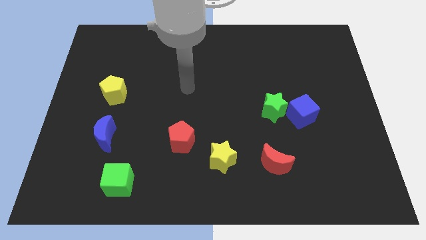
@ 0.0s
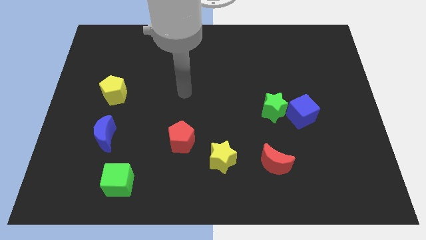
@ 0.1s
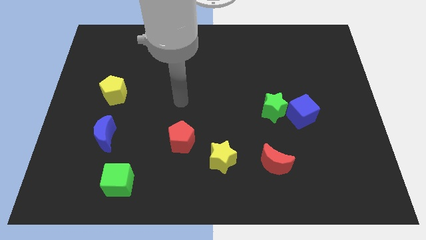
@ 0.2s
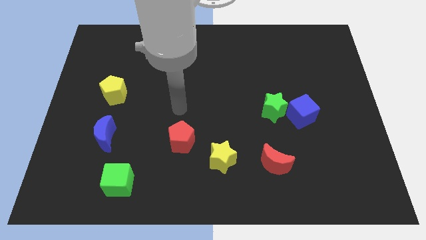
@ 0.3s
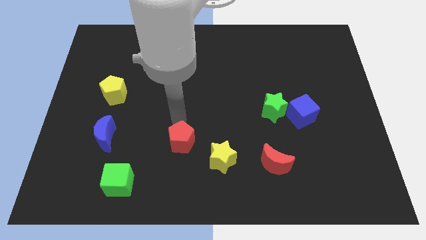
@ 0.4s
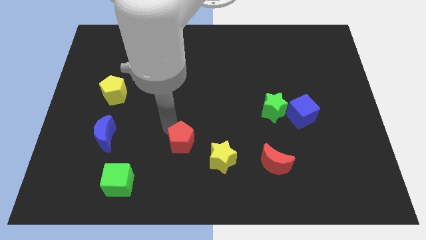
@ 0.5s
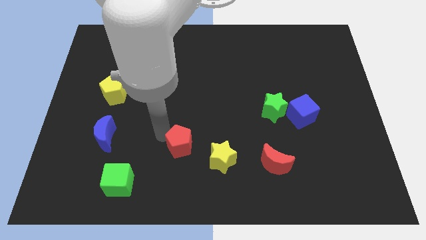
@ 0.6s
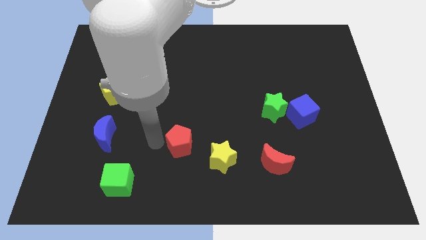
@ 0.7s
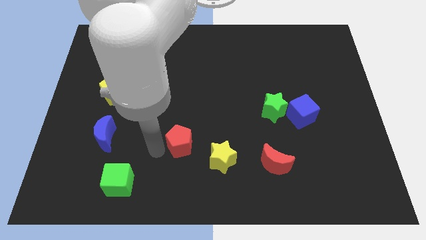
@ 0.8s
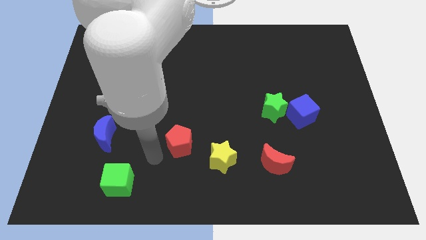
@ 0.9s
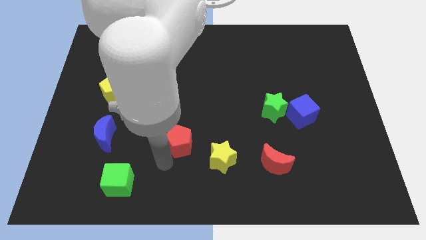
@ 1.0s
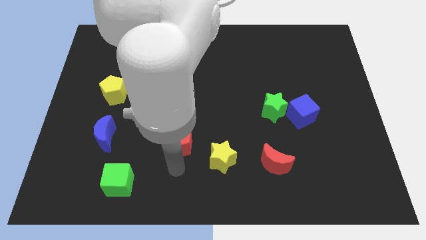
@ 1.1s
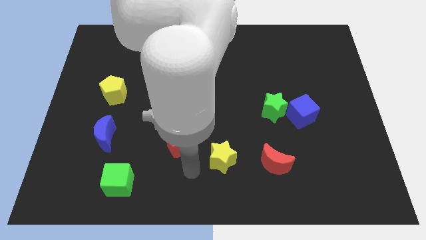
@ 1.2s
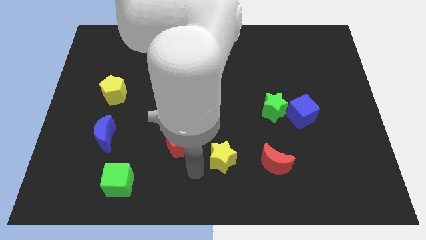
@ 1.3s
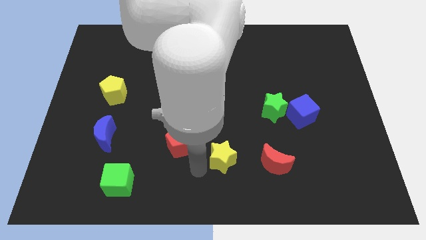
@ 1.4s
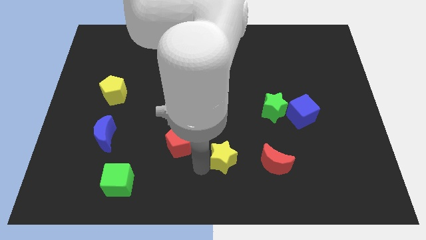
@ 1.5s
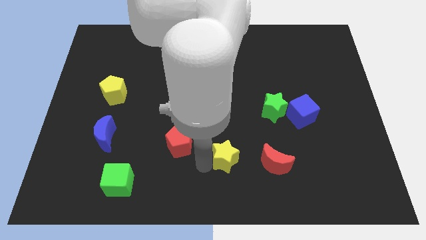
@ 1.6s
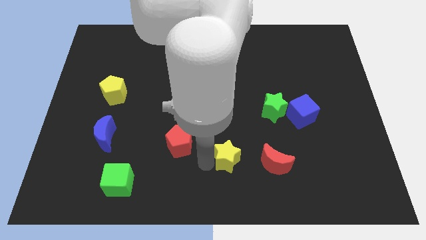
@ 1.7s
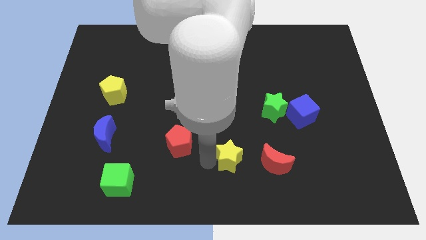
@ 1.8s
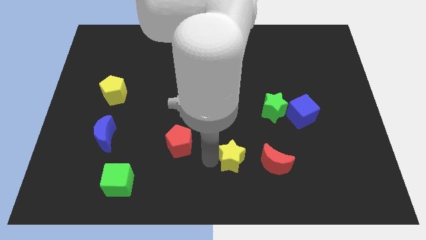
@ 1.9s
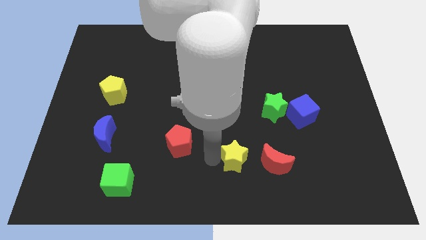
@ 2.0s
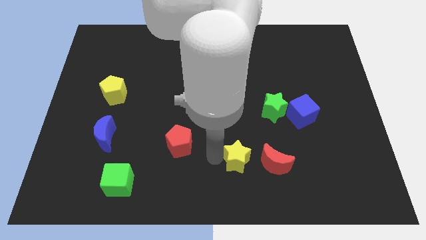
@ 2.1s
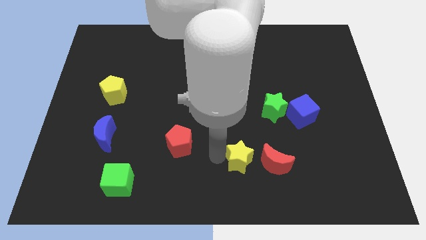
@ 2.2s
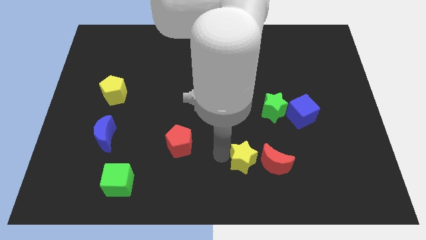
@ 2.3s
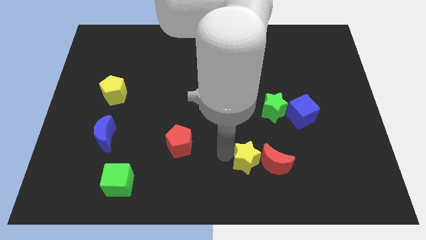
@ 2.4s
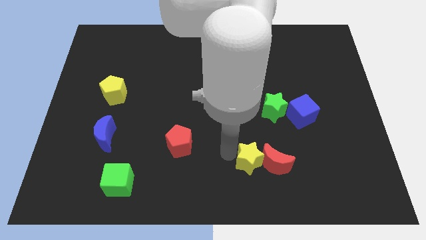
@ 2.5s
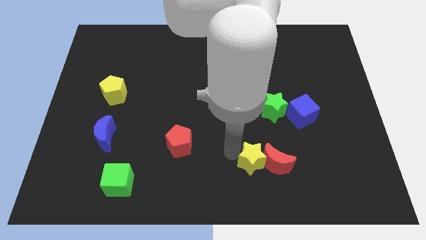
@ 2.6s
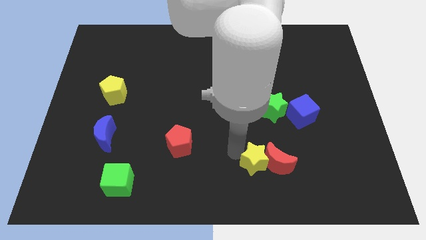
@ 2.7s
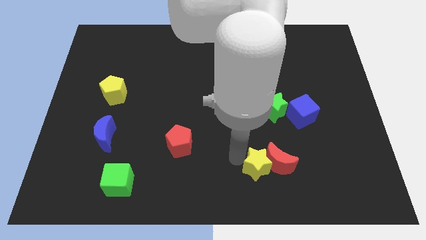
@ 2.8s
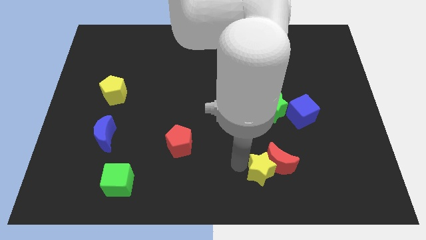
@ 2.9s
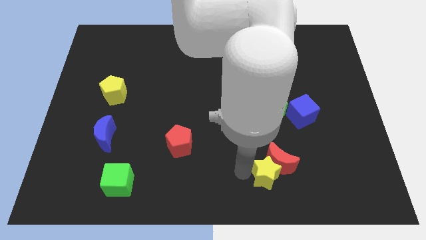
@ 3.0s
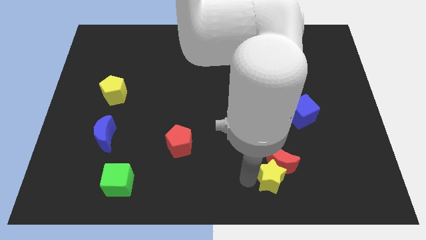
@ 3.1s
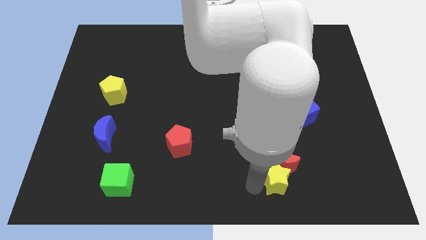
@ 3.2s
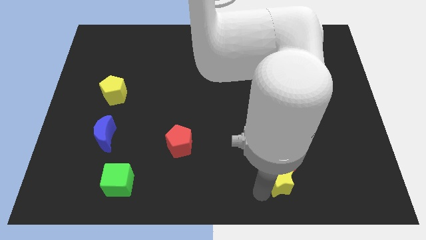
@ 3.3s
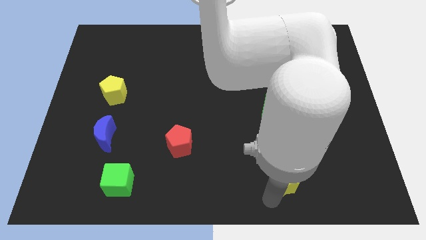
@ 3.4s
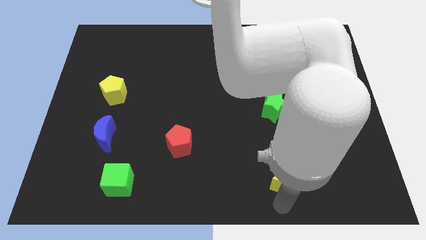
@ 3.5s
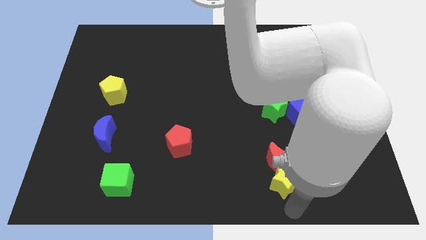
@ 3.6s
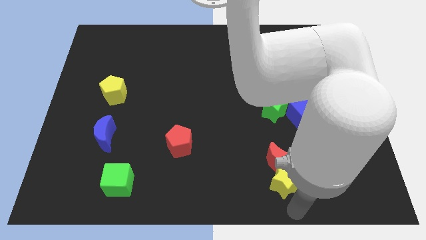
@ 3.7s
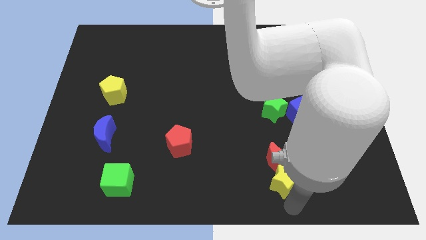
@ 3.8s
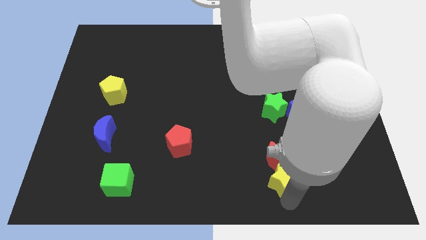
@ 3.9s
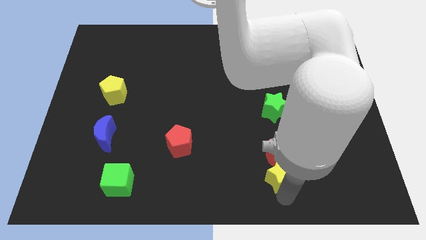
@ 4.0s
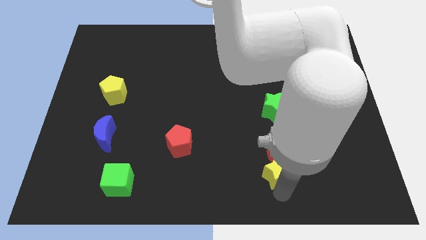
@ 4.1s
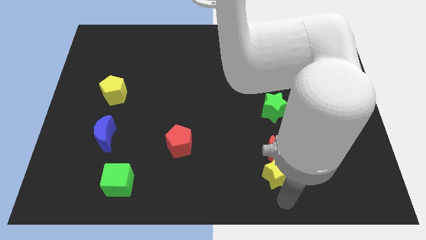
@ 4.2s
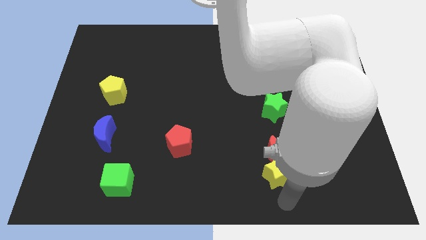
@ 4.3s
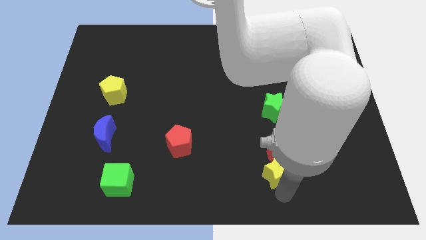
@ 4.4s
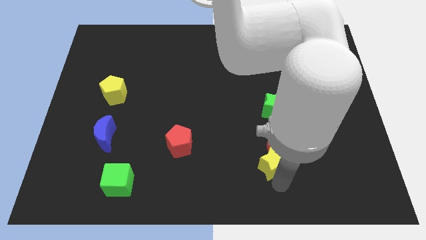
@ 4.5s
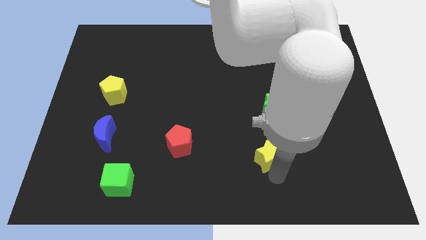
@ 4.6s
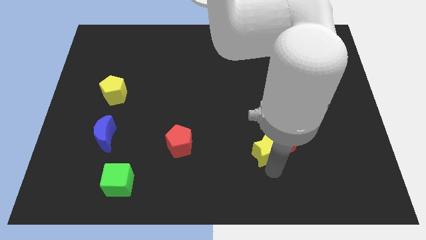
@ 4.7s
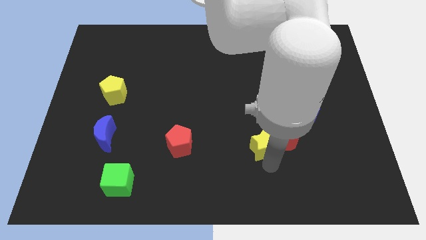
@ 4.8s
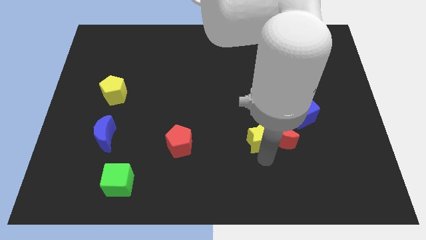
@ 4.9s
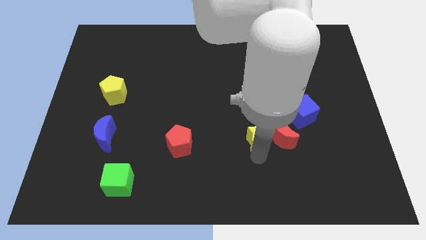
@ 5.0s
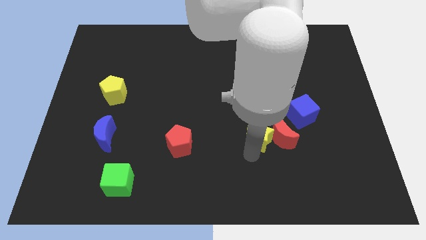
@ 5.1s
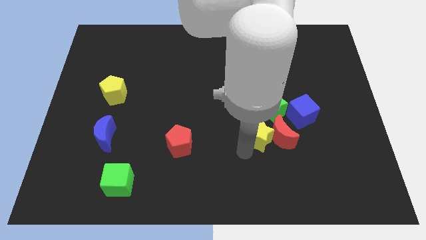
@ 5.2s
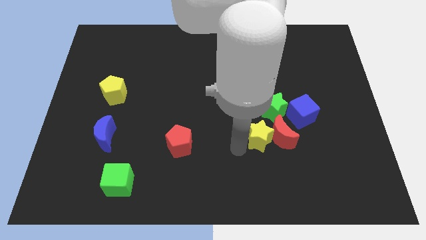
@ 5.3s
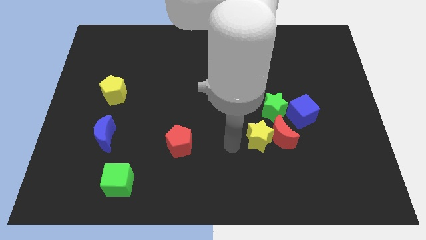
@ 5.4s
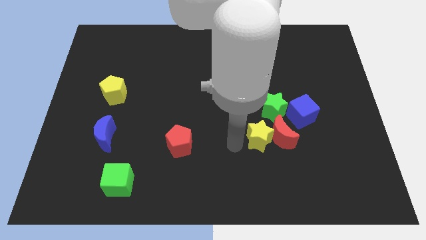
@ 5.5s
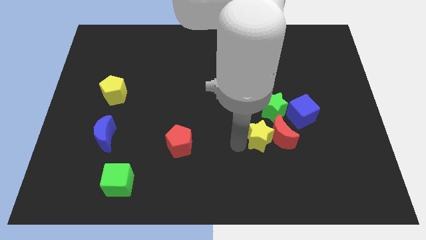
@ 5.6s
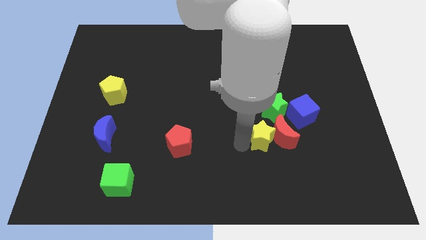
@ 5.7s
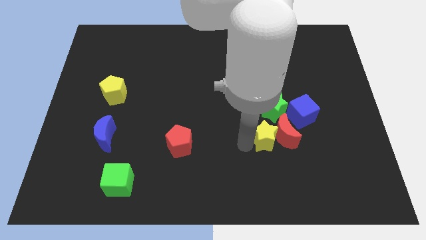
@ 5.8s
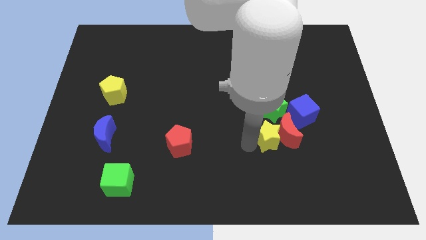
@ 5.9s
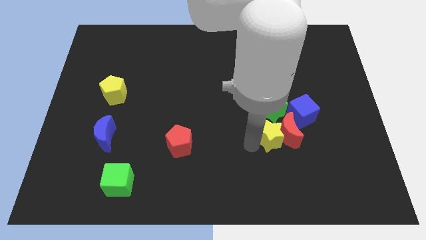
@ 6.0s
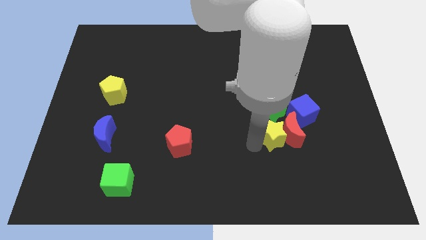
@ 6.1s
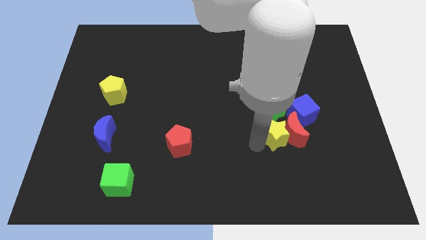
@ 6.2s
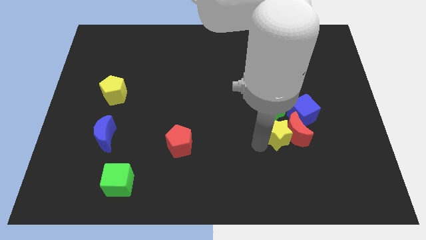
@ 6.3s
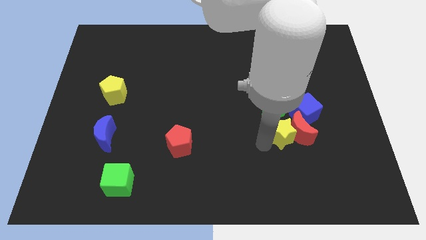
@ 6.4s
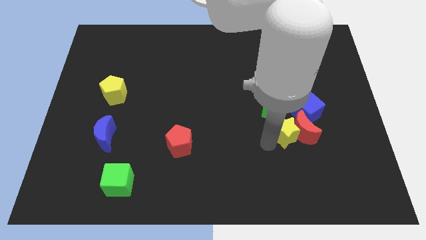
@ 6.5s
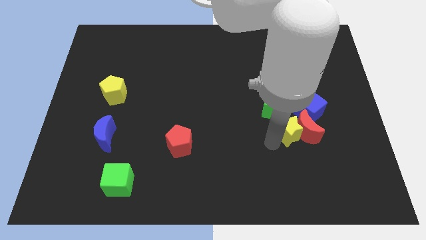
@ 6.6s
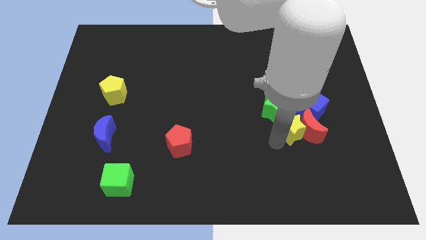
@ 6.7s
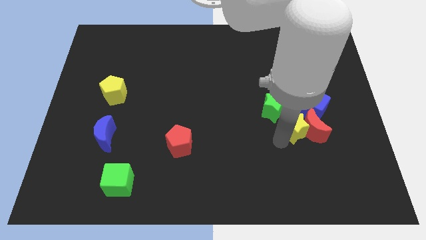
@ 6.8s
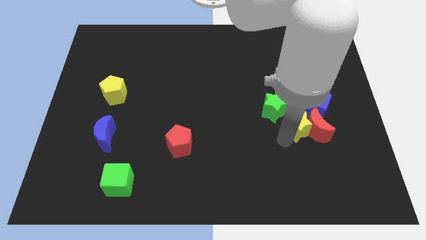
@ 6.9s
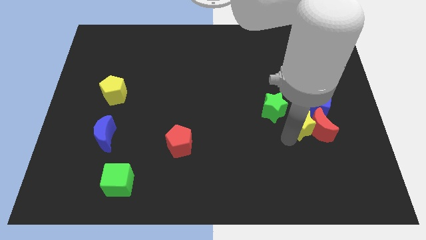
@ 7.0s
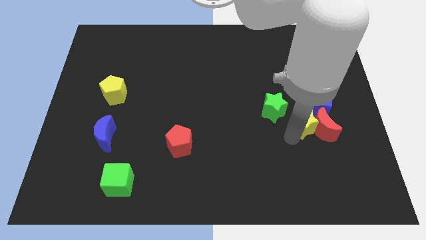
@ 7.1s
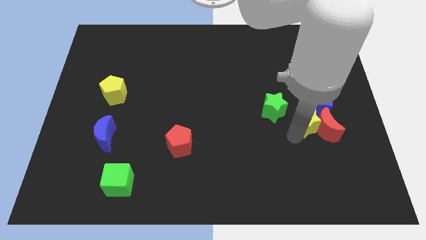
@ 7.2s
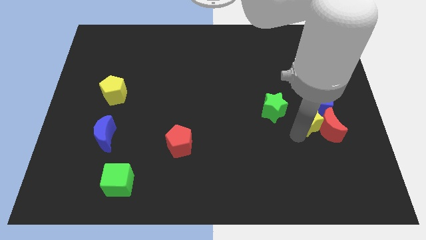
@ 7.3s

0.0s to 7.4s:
move the yellow star towards the blue cube
